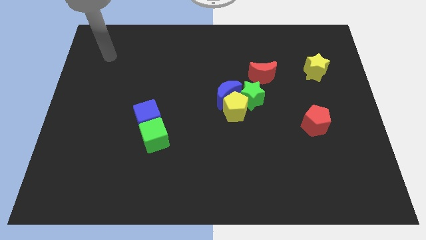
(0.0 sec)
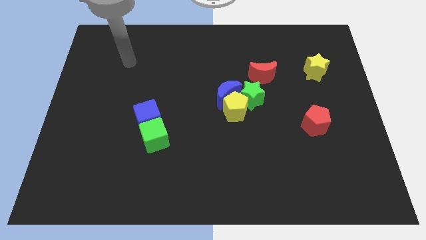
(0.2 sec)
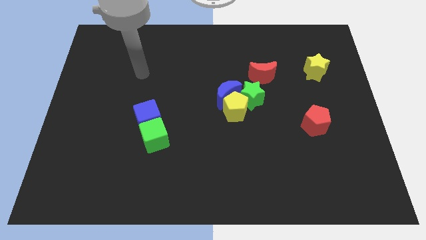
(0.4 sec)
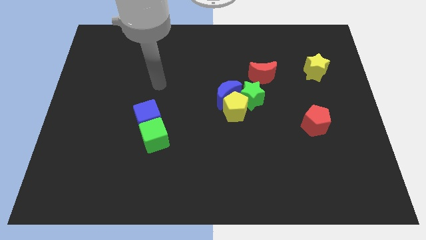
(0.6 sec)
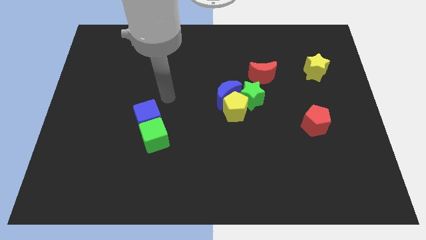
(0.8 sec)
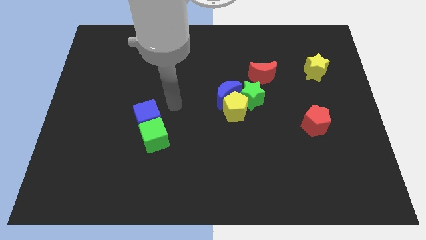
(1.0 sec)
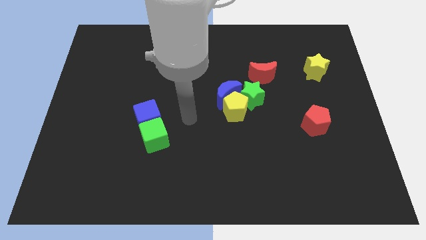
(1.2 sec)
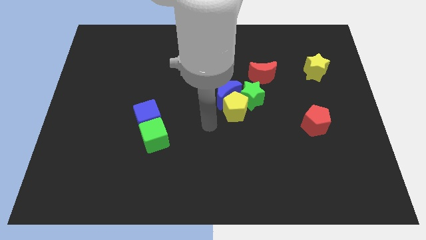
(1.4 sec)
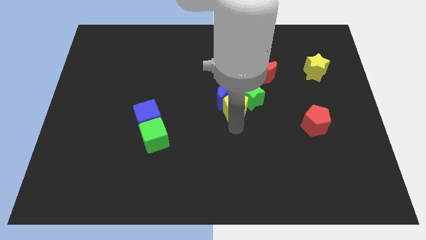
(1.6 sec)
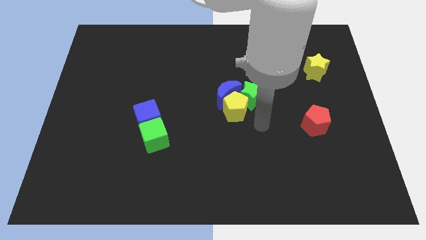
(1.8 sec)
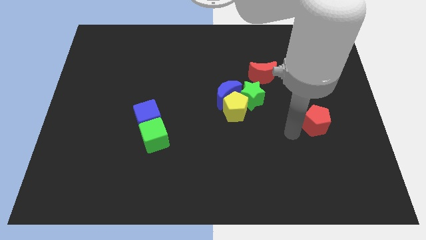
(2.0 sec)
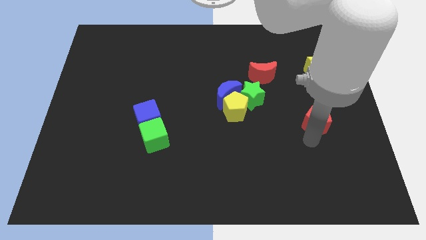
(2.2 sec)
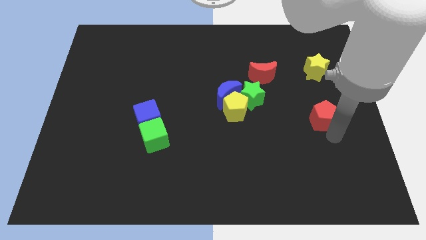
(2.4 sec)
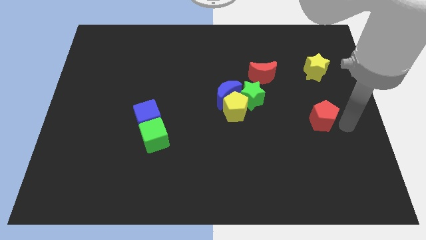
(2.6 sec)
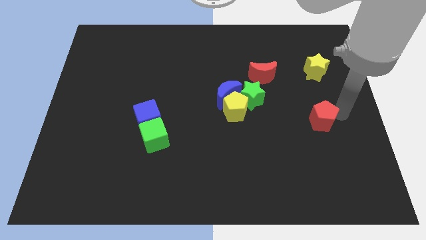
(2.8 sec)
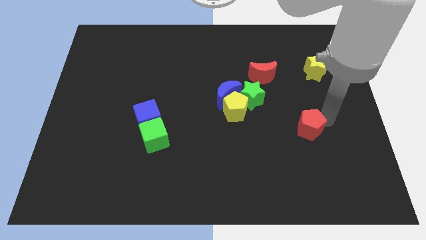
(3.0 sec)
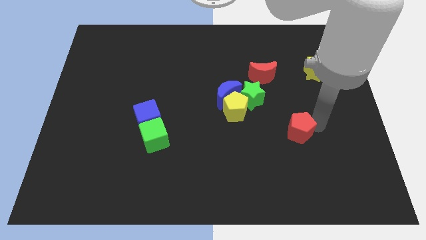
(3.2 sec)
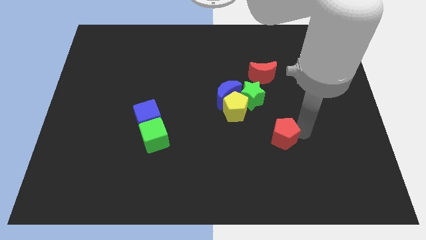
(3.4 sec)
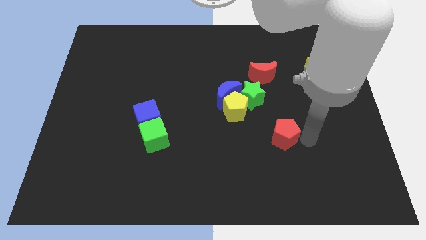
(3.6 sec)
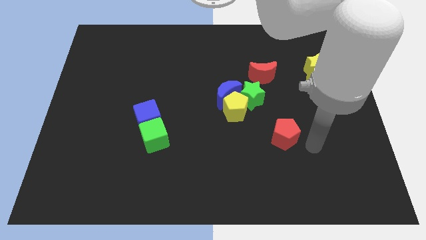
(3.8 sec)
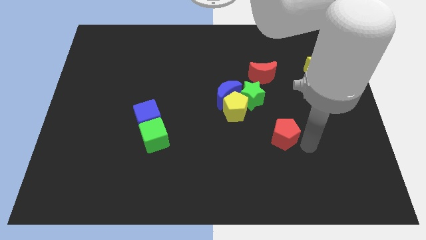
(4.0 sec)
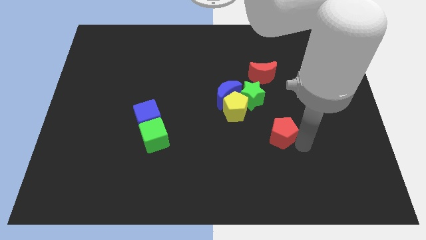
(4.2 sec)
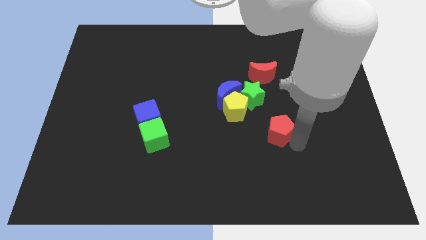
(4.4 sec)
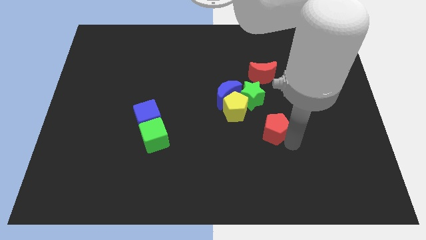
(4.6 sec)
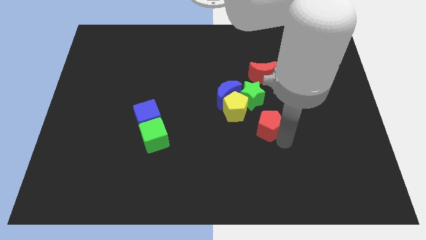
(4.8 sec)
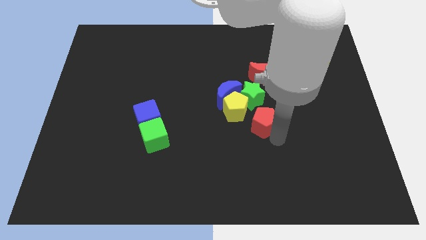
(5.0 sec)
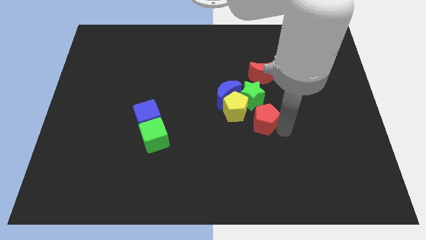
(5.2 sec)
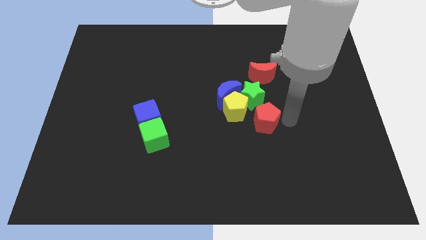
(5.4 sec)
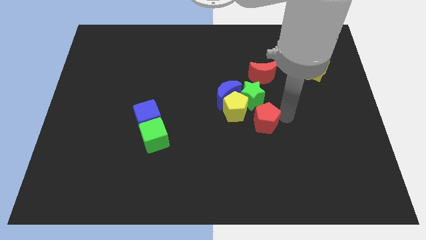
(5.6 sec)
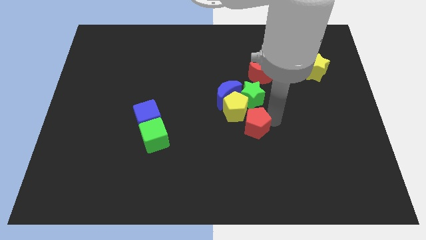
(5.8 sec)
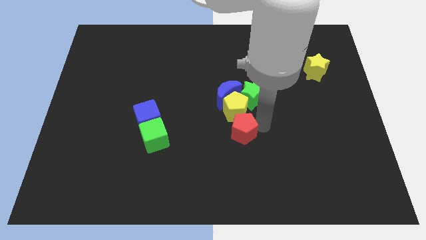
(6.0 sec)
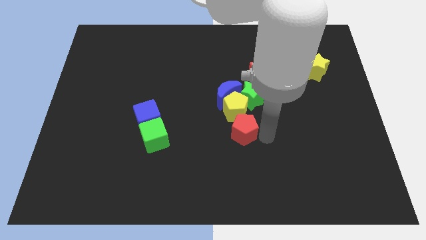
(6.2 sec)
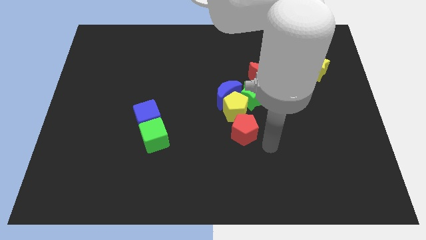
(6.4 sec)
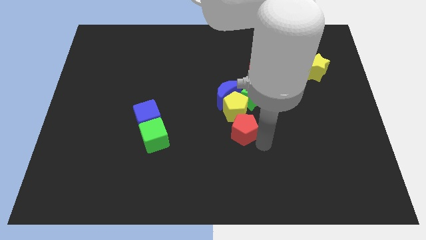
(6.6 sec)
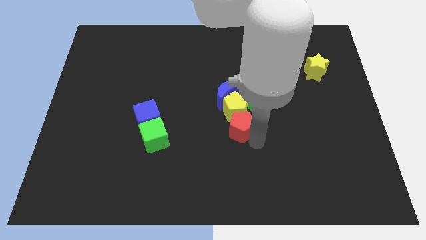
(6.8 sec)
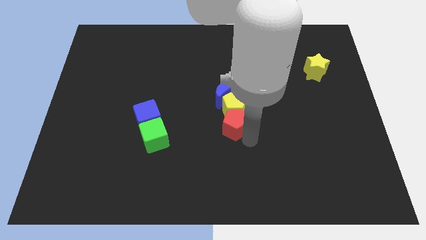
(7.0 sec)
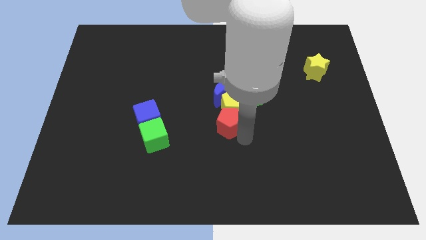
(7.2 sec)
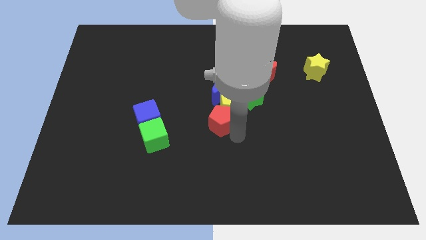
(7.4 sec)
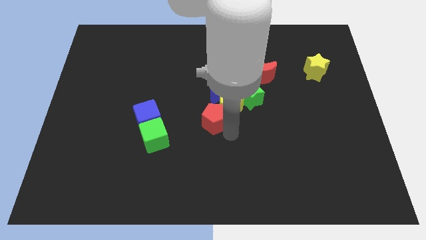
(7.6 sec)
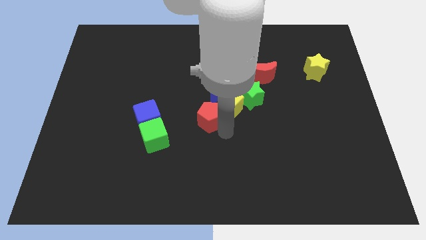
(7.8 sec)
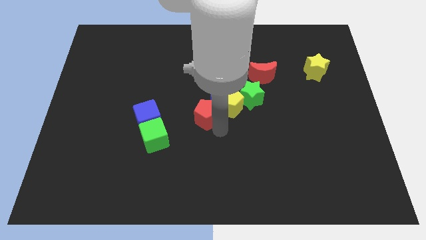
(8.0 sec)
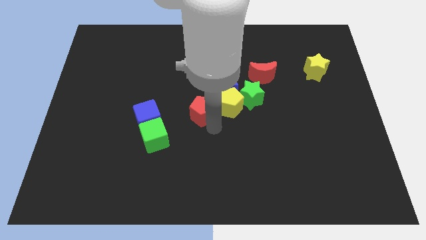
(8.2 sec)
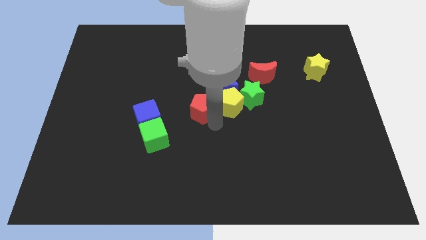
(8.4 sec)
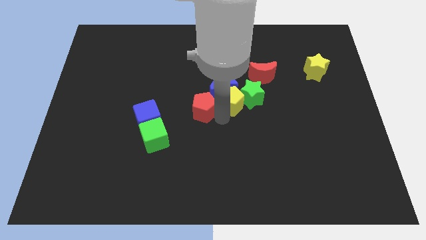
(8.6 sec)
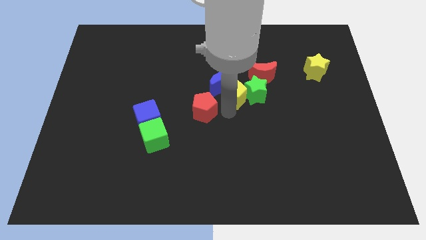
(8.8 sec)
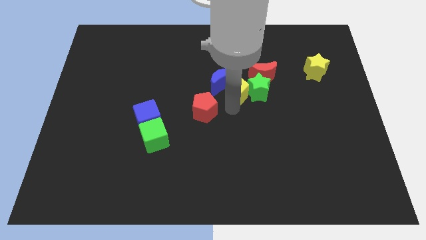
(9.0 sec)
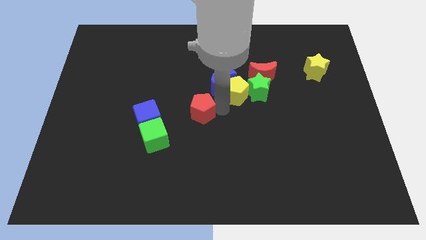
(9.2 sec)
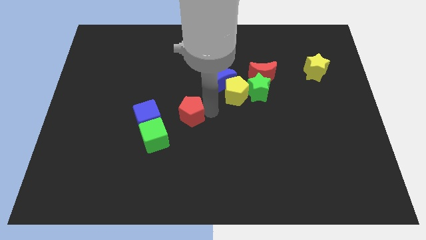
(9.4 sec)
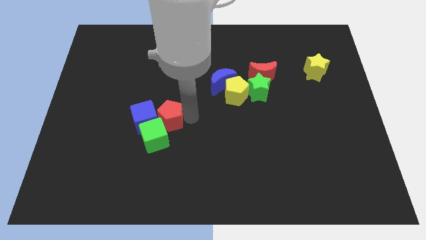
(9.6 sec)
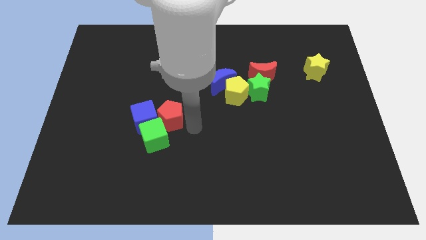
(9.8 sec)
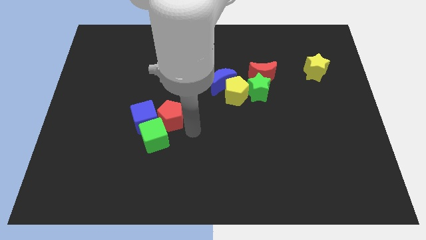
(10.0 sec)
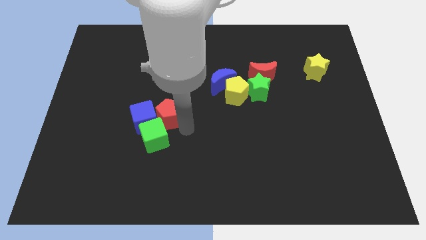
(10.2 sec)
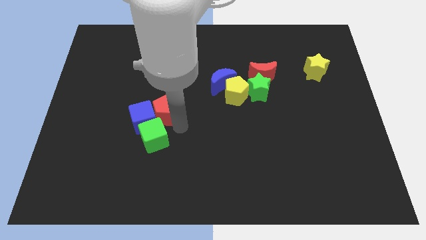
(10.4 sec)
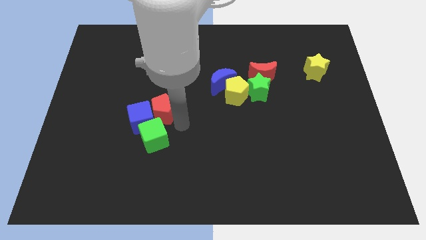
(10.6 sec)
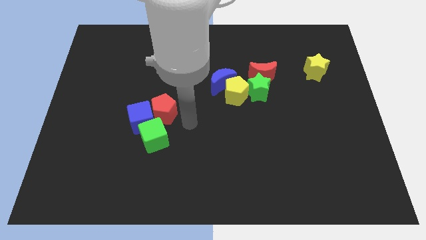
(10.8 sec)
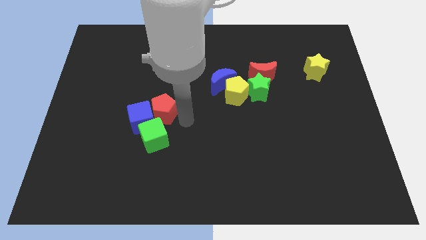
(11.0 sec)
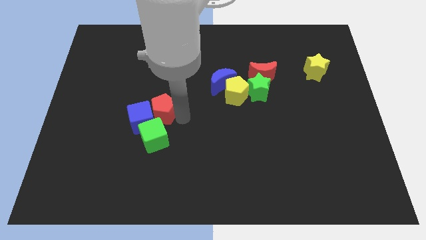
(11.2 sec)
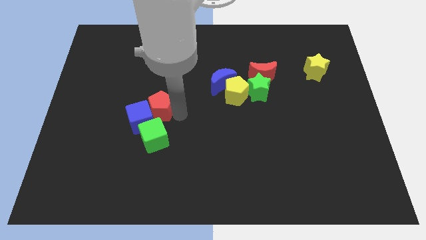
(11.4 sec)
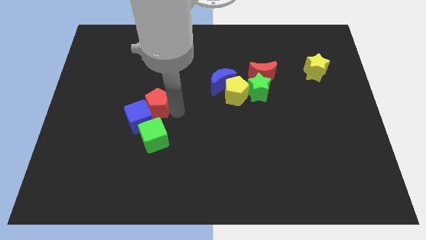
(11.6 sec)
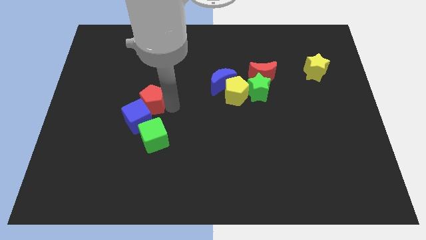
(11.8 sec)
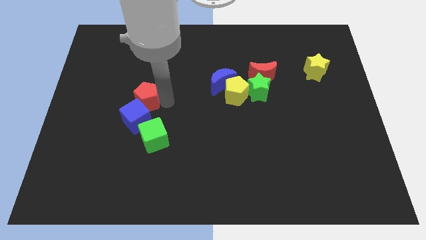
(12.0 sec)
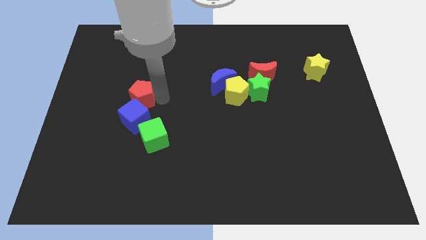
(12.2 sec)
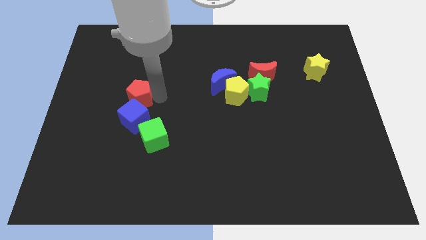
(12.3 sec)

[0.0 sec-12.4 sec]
push the red pentagon to the top left side of the blue cube

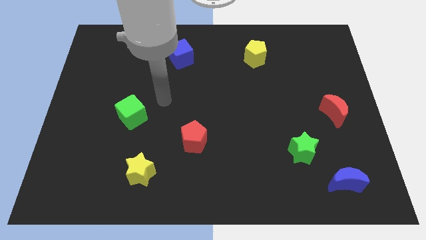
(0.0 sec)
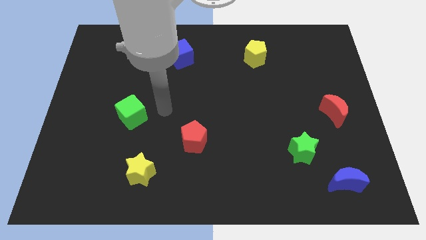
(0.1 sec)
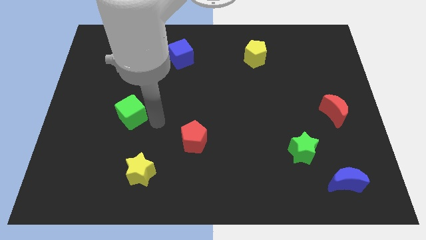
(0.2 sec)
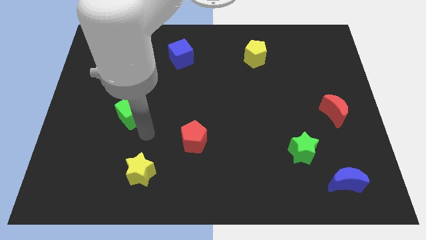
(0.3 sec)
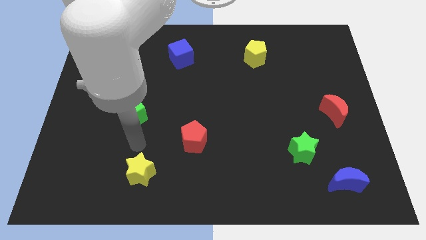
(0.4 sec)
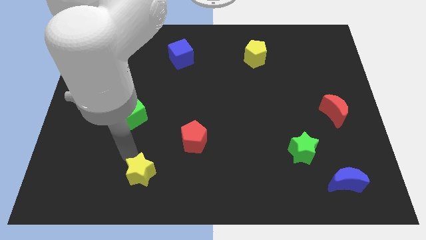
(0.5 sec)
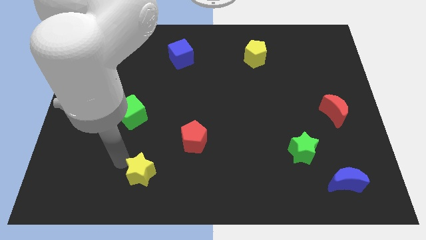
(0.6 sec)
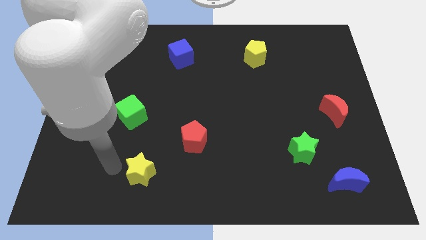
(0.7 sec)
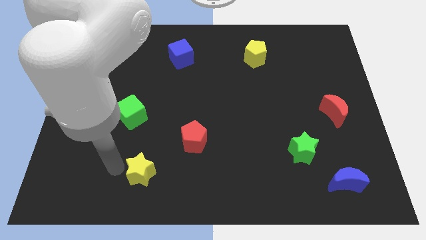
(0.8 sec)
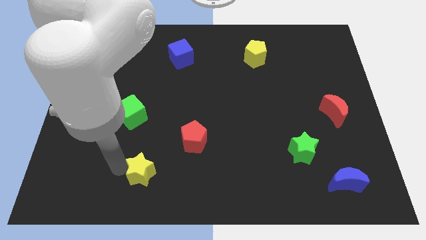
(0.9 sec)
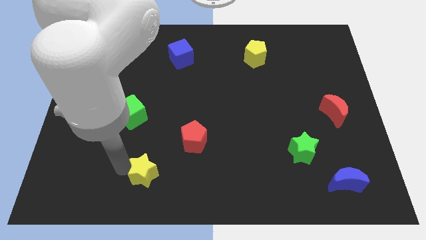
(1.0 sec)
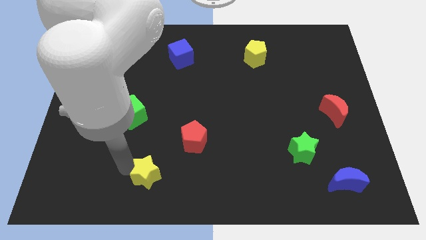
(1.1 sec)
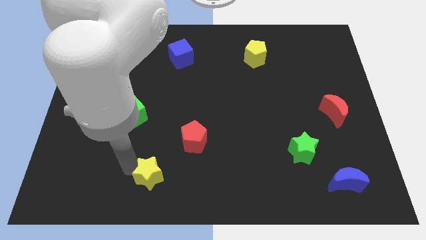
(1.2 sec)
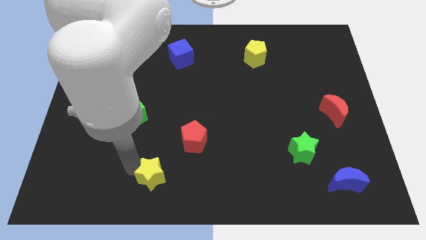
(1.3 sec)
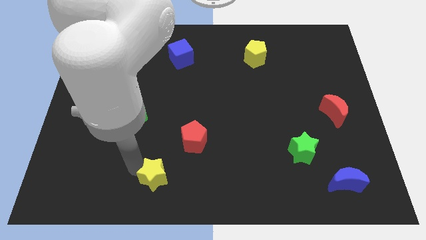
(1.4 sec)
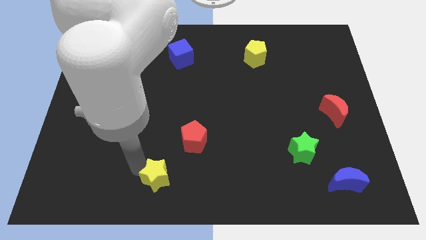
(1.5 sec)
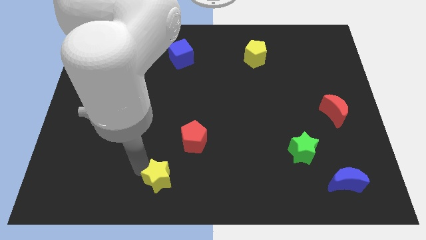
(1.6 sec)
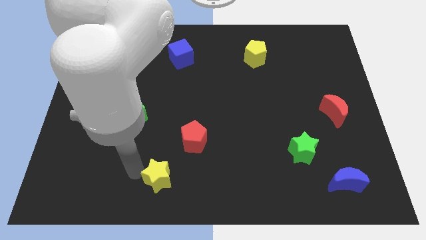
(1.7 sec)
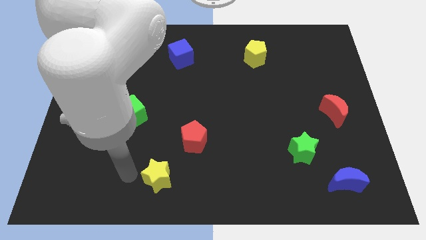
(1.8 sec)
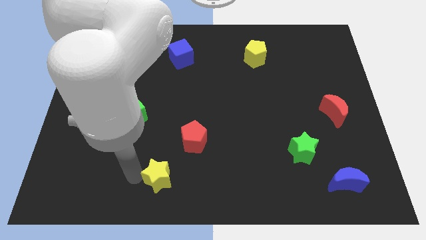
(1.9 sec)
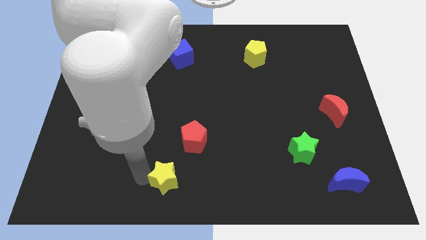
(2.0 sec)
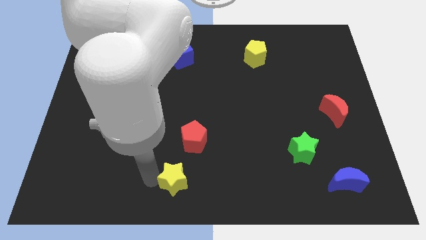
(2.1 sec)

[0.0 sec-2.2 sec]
push the yellow star to the bottom of the red pentagon
